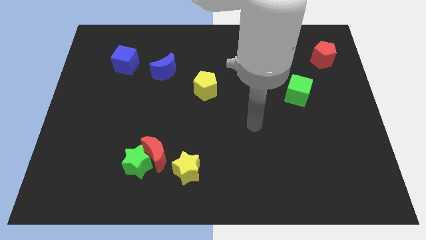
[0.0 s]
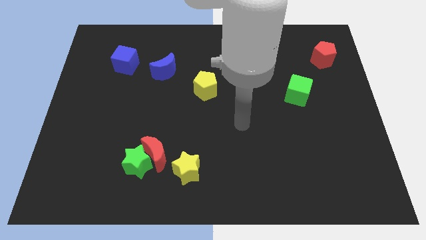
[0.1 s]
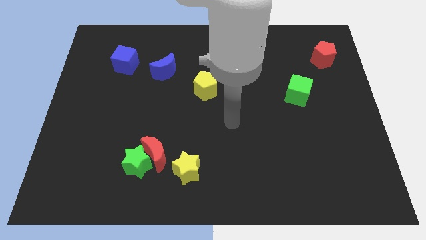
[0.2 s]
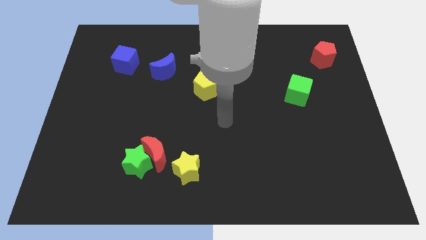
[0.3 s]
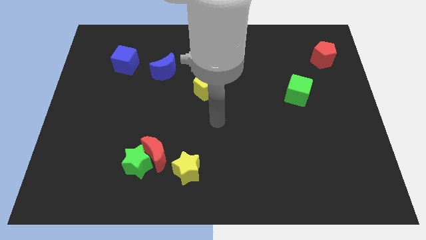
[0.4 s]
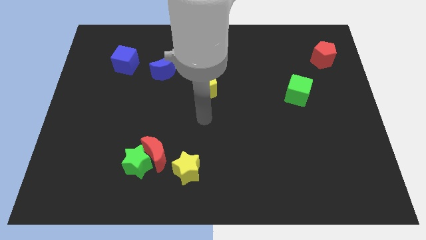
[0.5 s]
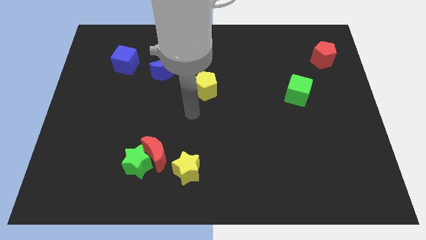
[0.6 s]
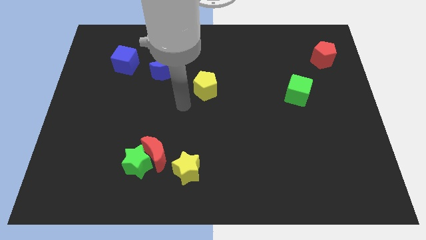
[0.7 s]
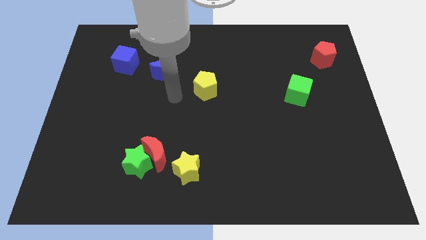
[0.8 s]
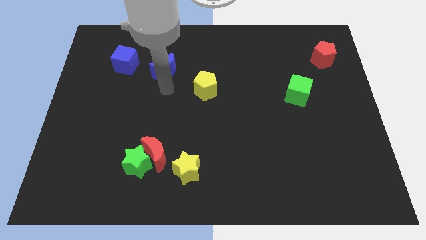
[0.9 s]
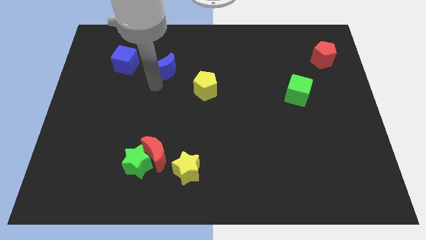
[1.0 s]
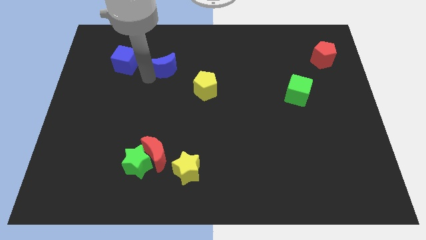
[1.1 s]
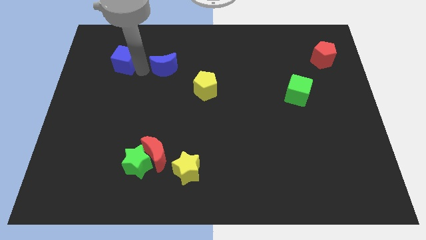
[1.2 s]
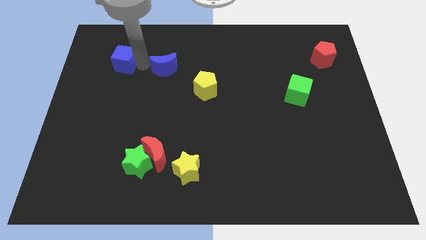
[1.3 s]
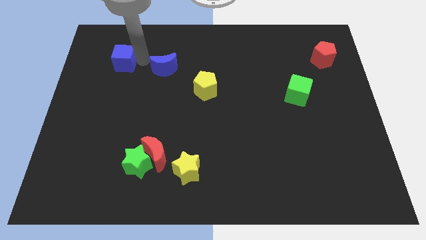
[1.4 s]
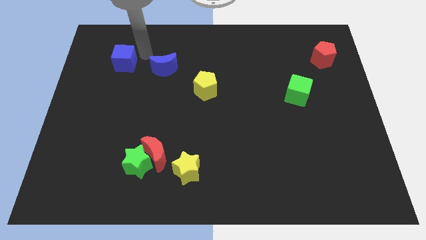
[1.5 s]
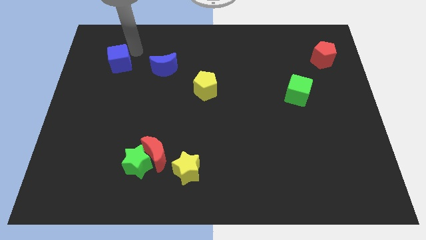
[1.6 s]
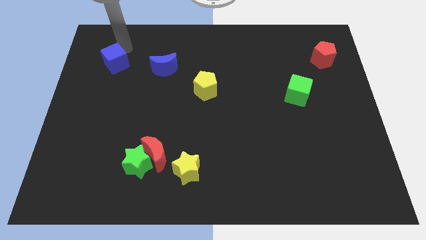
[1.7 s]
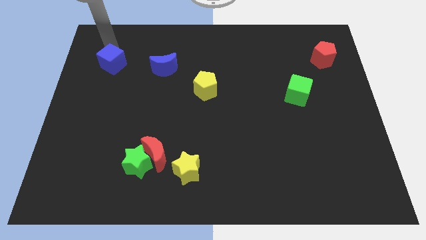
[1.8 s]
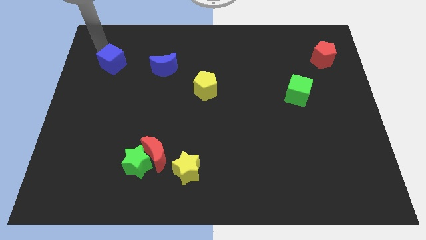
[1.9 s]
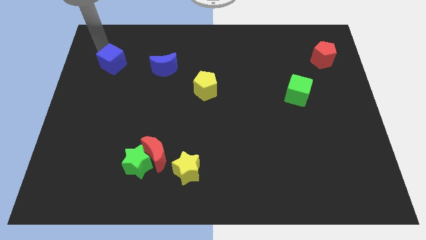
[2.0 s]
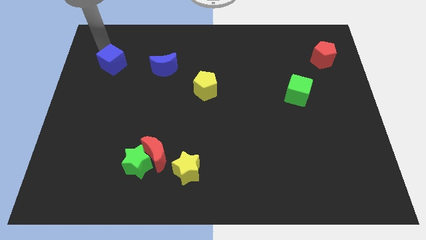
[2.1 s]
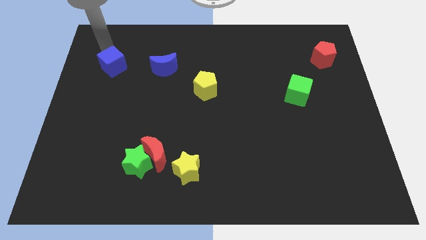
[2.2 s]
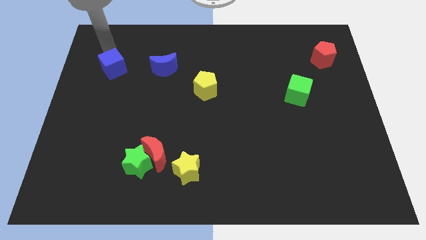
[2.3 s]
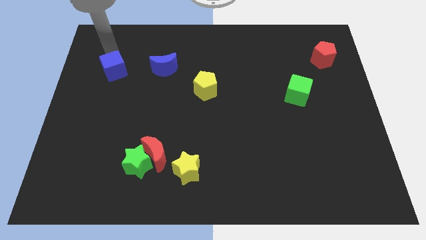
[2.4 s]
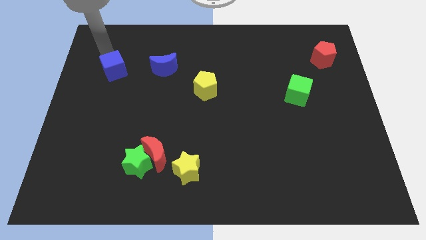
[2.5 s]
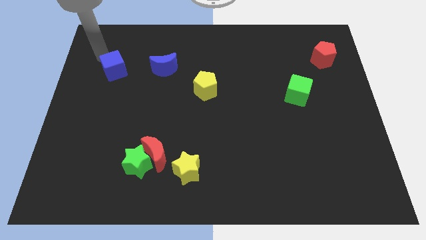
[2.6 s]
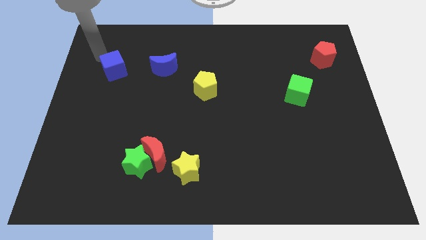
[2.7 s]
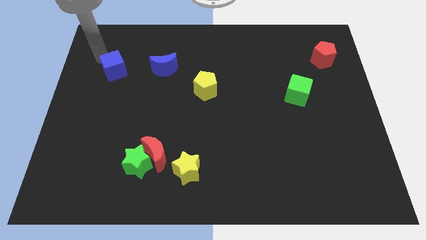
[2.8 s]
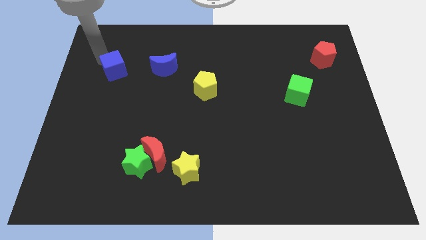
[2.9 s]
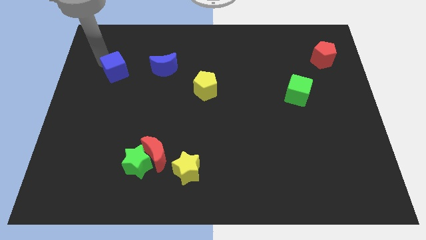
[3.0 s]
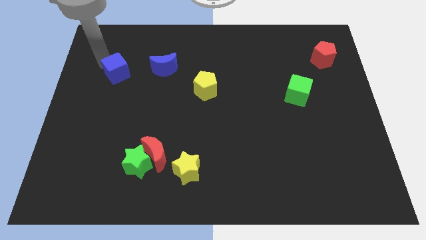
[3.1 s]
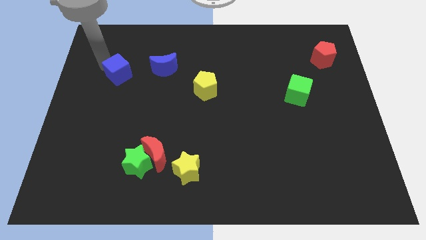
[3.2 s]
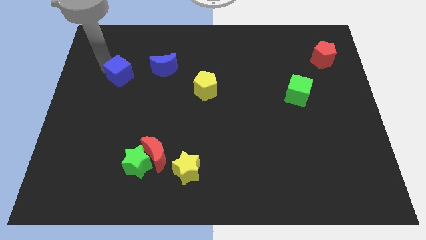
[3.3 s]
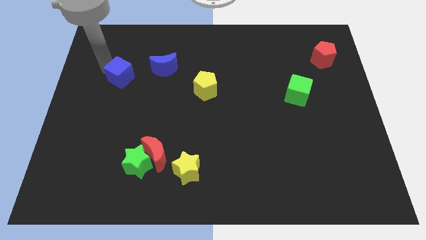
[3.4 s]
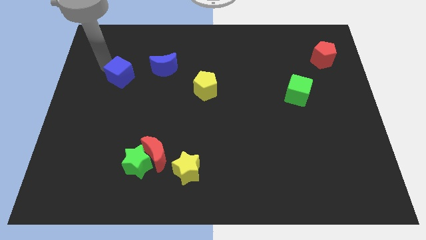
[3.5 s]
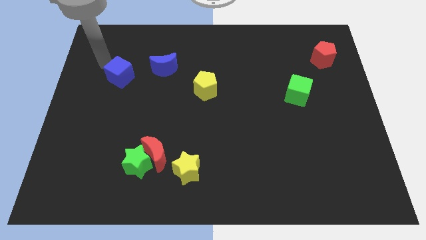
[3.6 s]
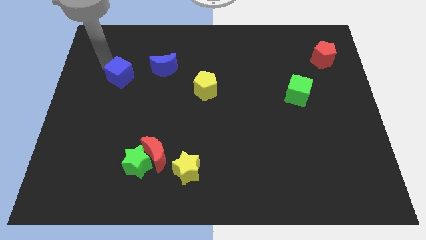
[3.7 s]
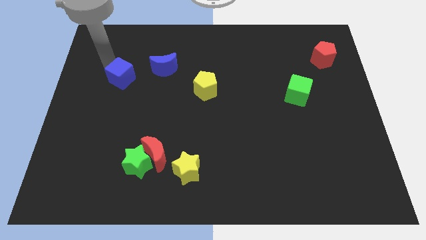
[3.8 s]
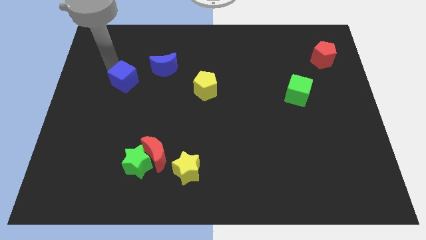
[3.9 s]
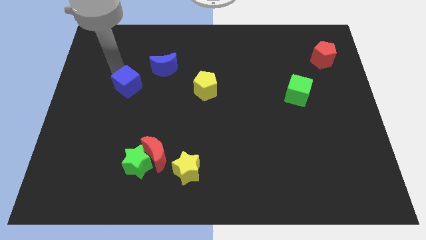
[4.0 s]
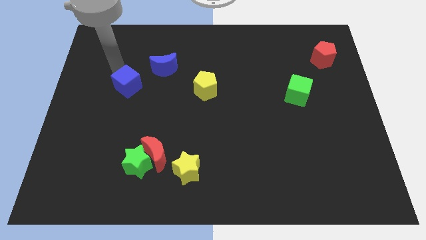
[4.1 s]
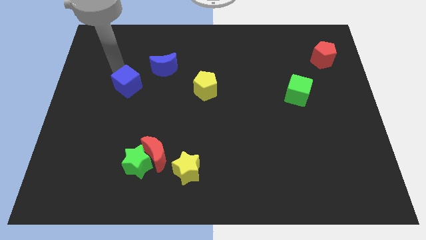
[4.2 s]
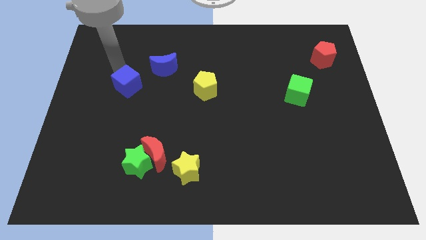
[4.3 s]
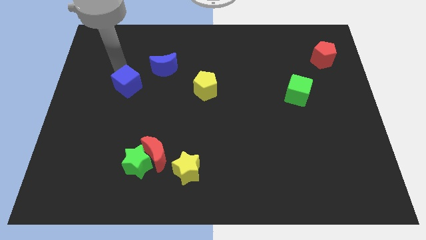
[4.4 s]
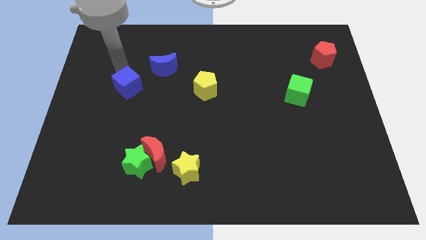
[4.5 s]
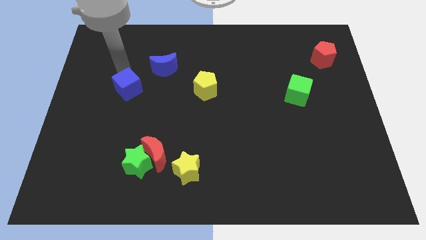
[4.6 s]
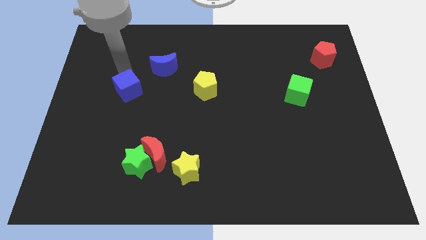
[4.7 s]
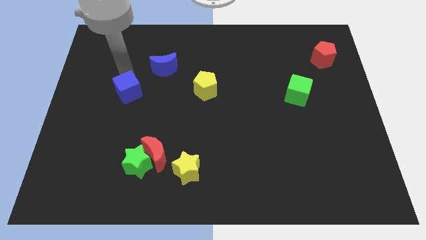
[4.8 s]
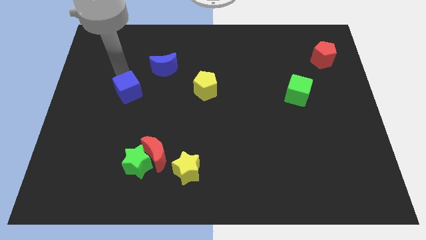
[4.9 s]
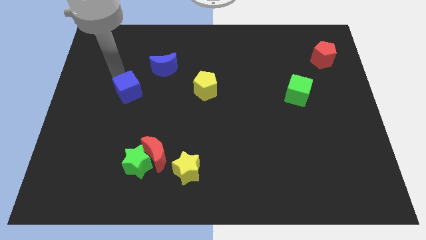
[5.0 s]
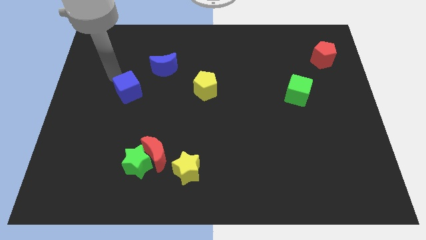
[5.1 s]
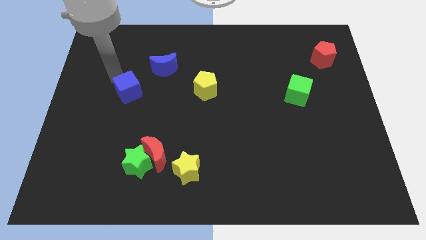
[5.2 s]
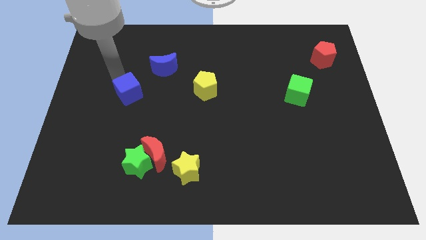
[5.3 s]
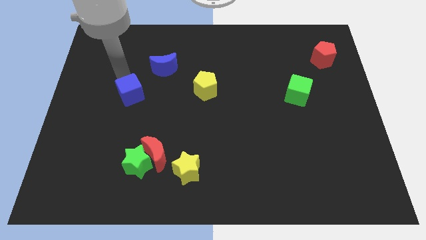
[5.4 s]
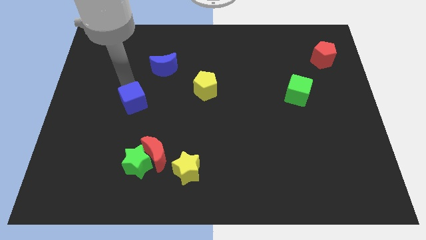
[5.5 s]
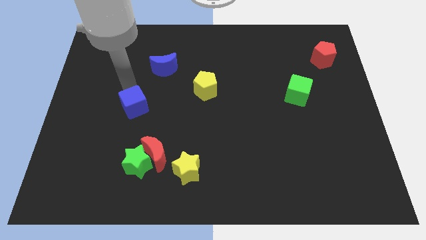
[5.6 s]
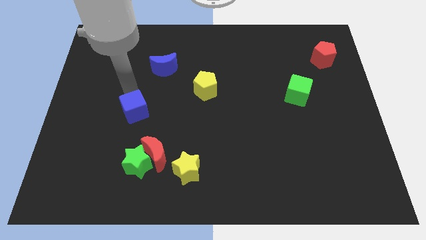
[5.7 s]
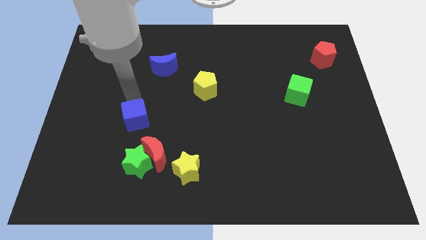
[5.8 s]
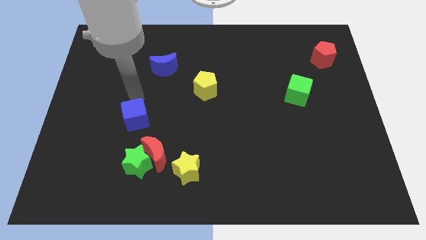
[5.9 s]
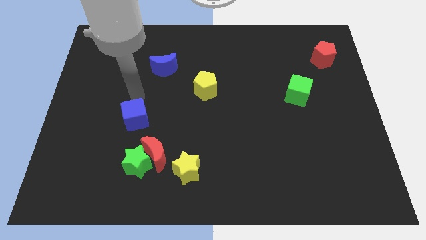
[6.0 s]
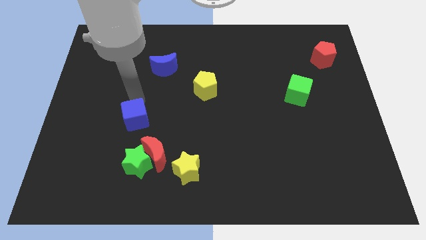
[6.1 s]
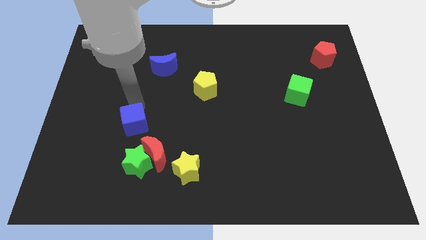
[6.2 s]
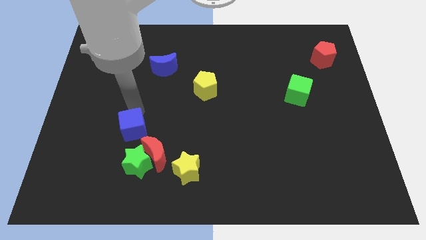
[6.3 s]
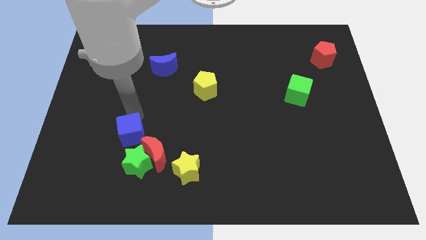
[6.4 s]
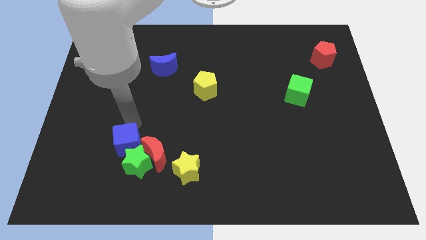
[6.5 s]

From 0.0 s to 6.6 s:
put the blue cube towards the green star

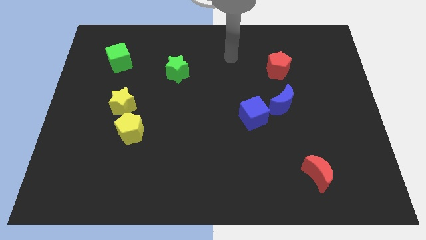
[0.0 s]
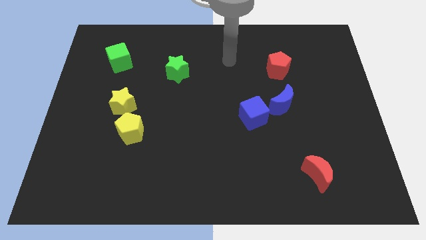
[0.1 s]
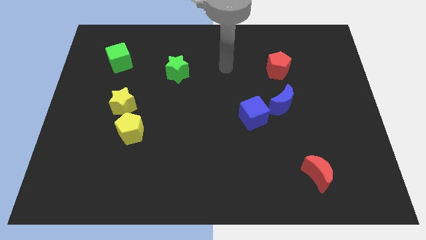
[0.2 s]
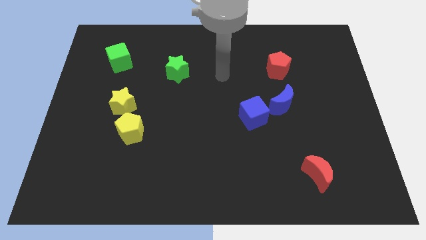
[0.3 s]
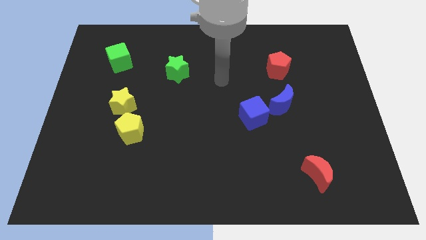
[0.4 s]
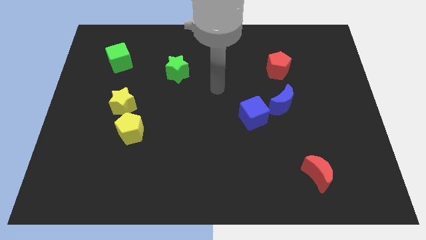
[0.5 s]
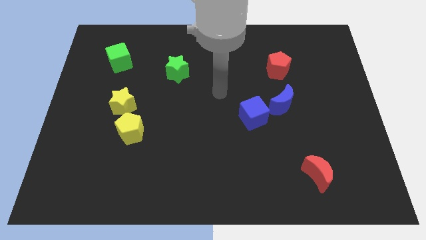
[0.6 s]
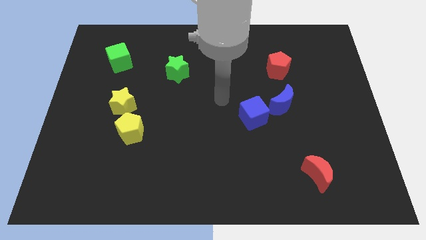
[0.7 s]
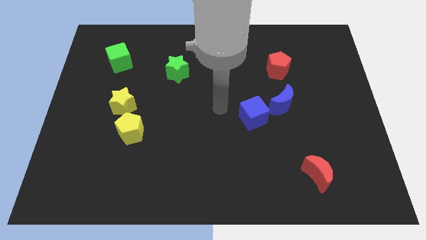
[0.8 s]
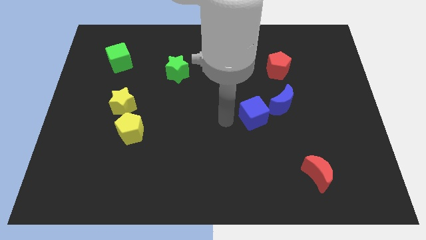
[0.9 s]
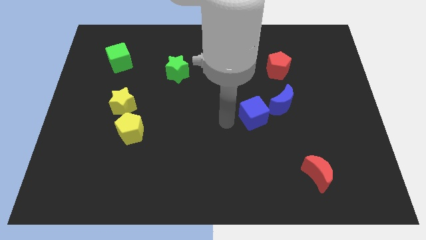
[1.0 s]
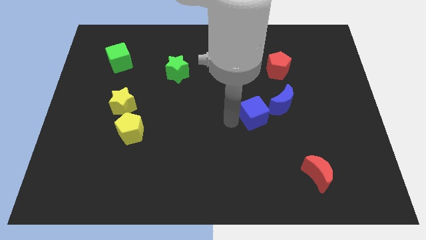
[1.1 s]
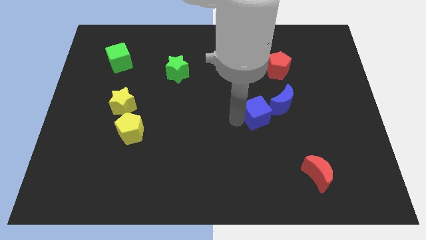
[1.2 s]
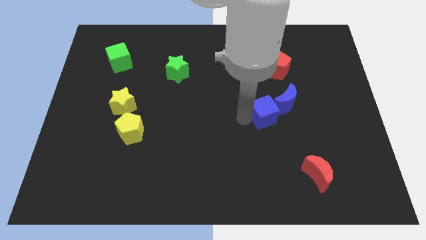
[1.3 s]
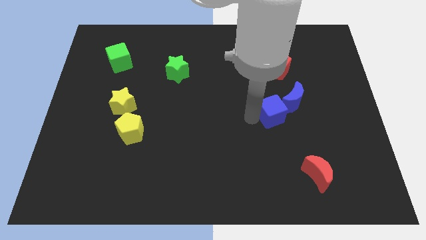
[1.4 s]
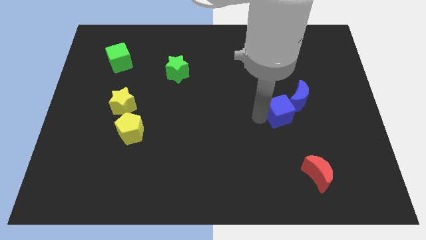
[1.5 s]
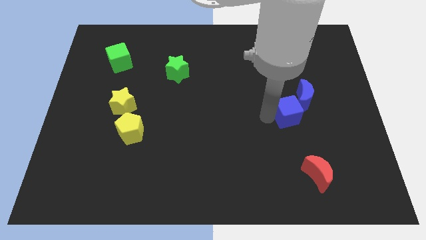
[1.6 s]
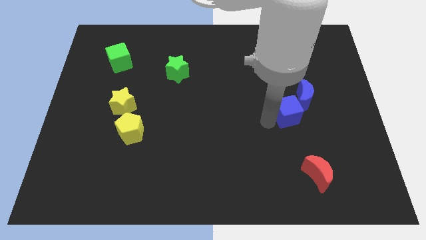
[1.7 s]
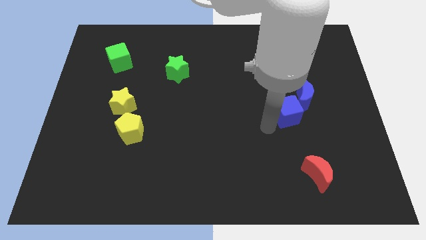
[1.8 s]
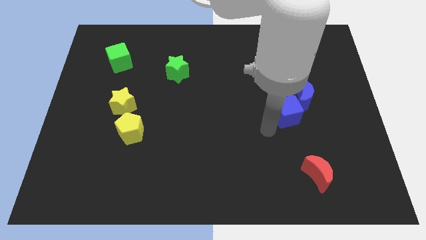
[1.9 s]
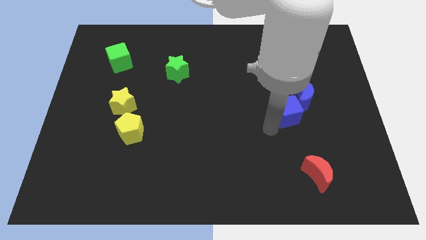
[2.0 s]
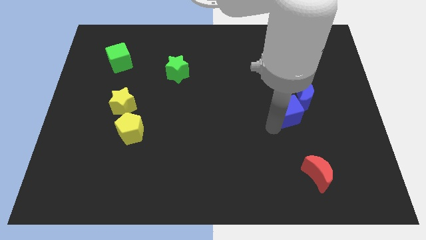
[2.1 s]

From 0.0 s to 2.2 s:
put the blue cube to the blue moon
